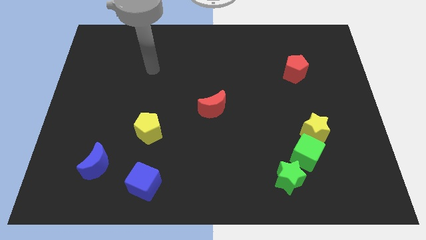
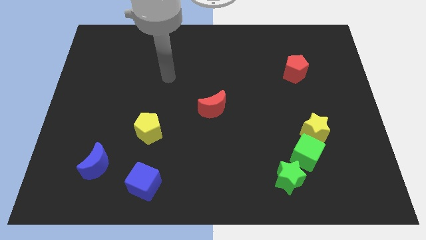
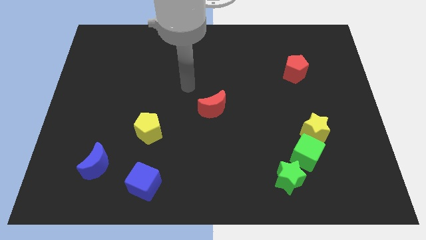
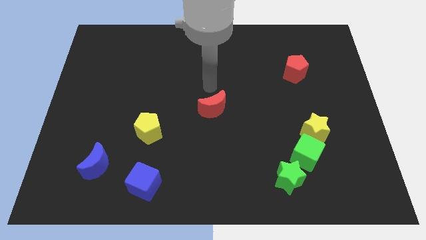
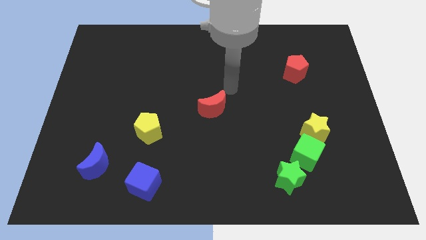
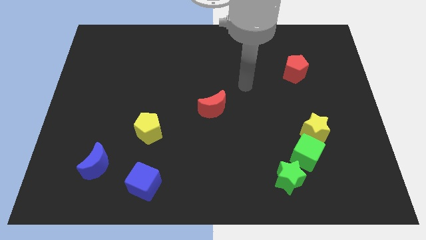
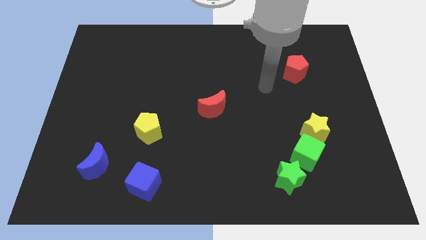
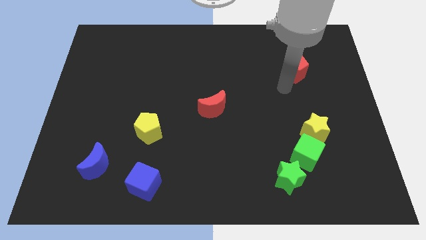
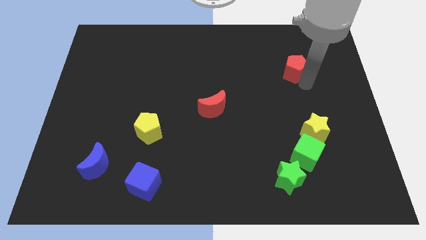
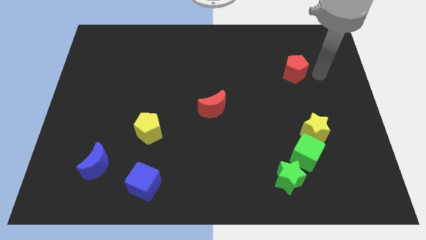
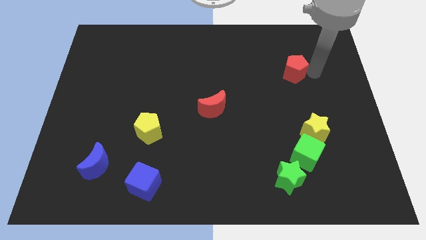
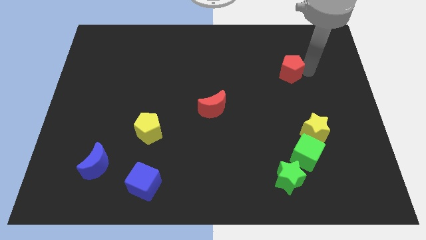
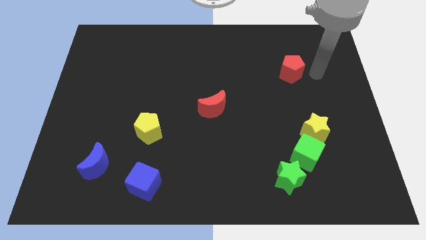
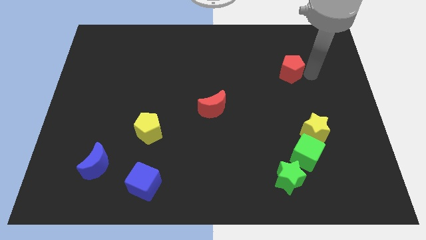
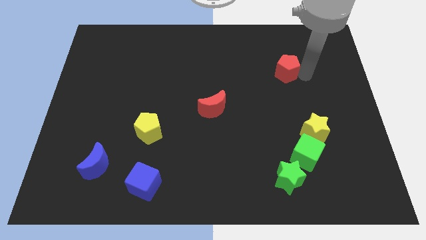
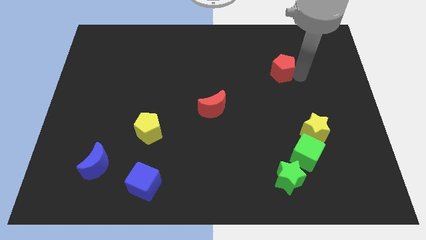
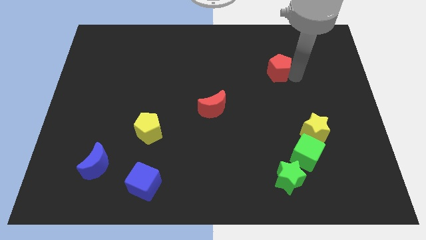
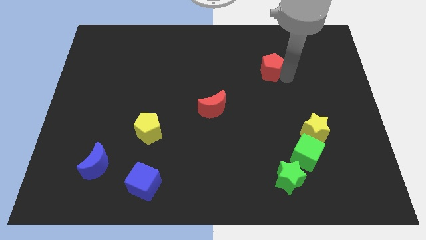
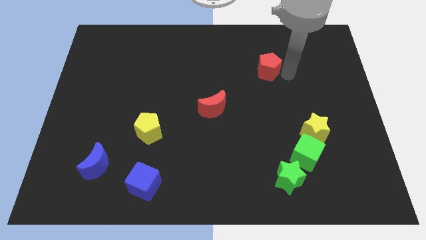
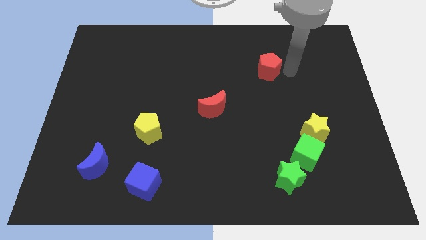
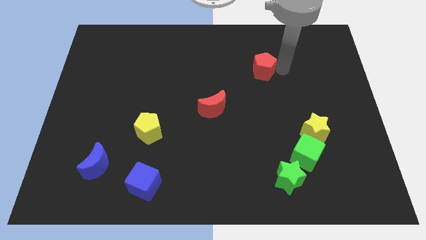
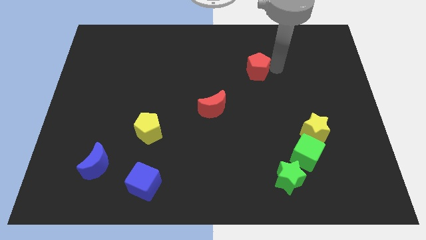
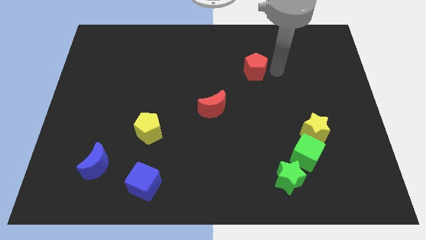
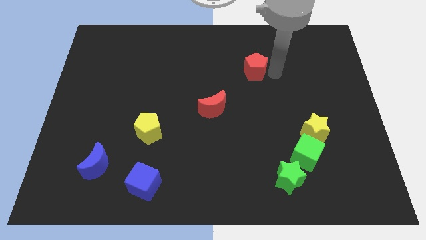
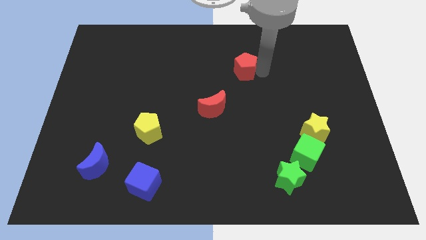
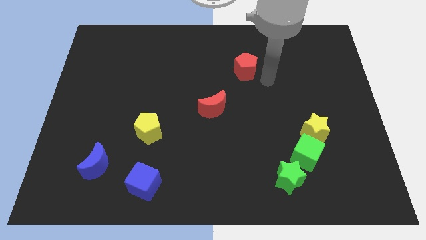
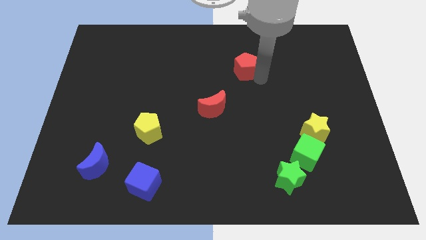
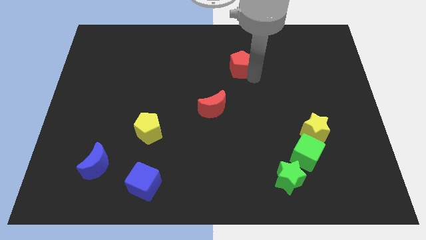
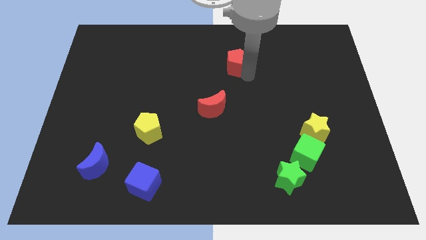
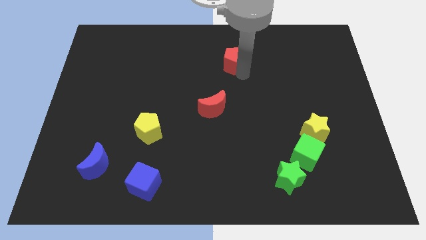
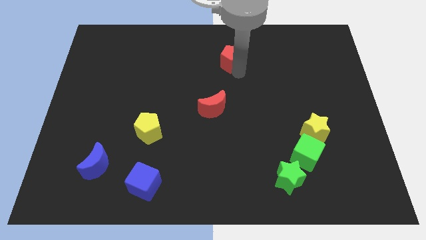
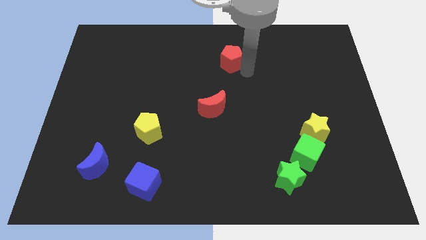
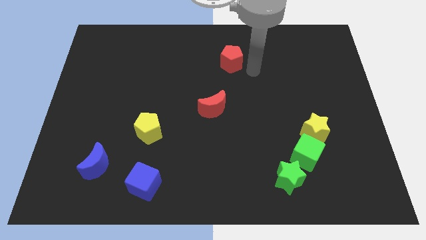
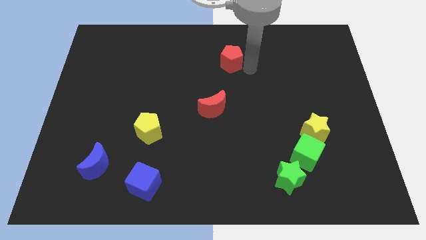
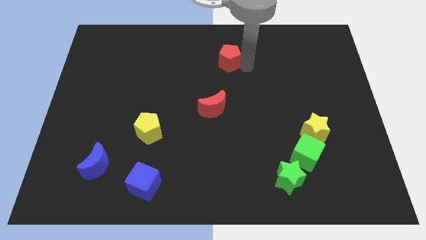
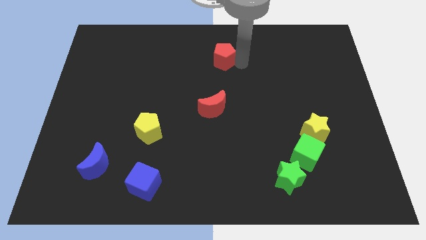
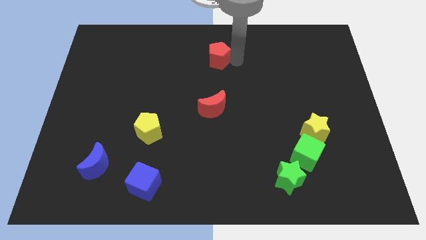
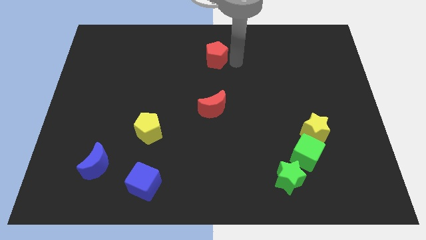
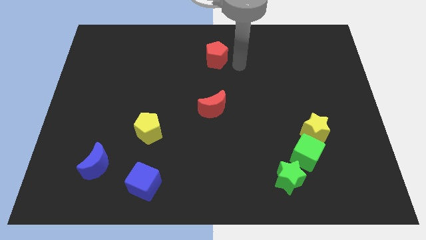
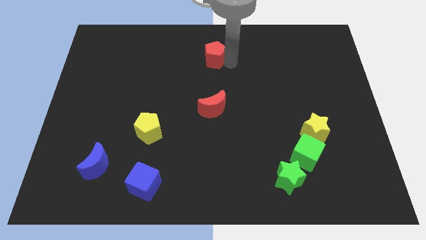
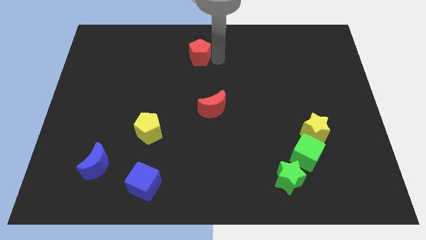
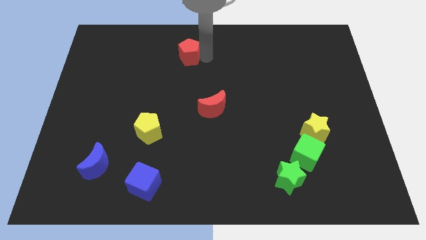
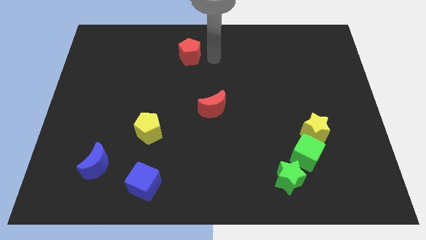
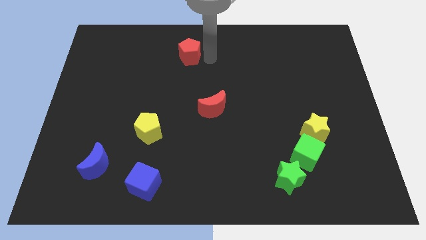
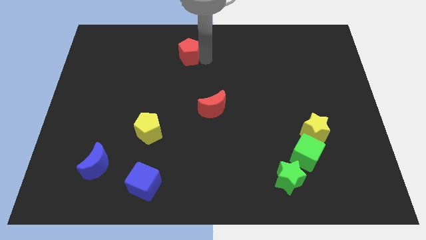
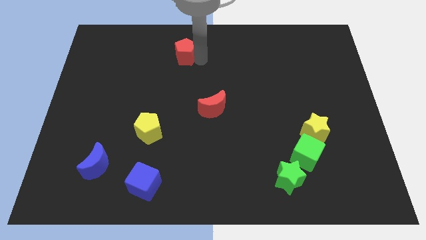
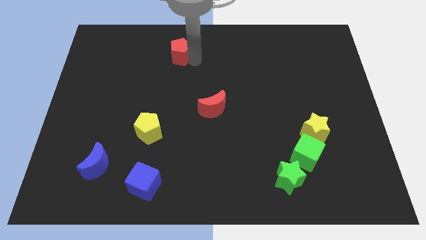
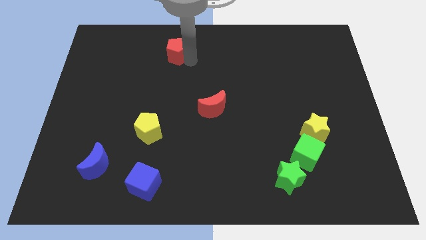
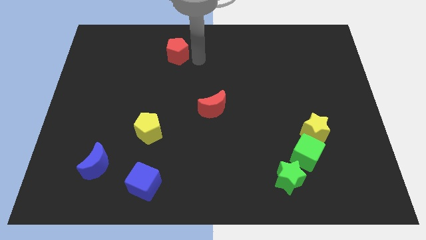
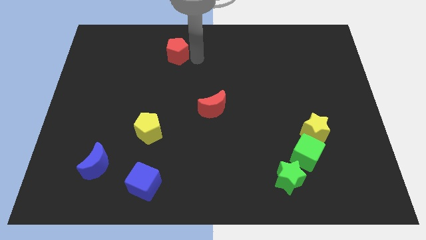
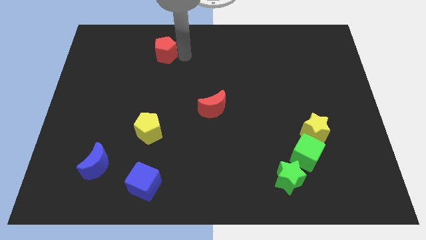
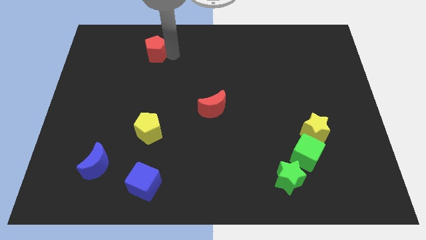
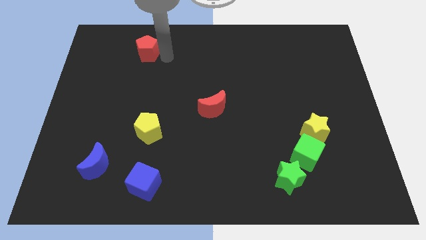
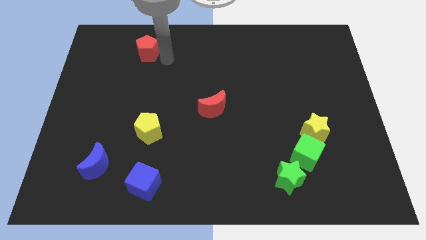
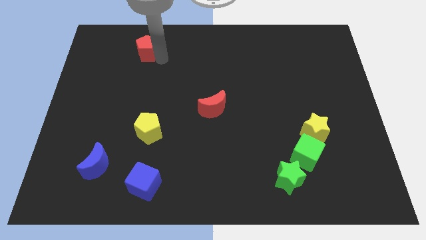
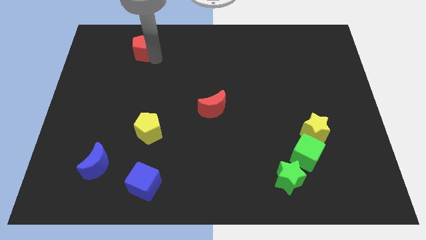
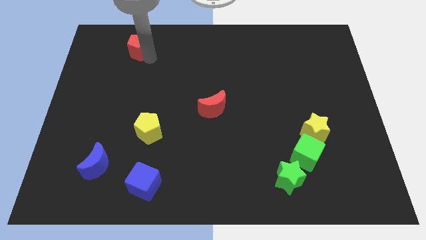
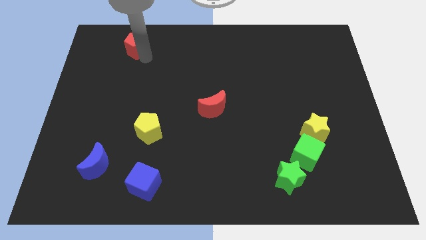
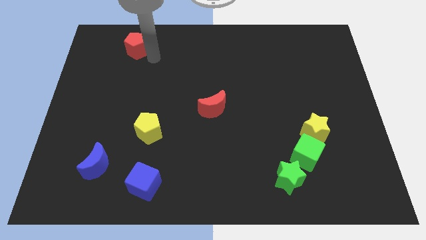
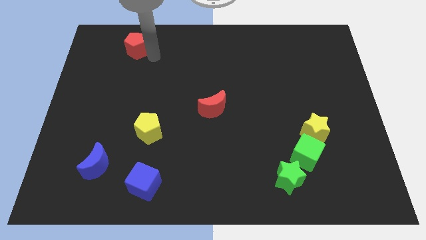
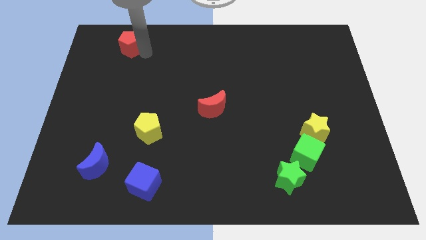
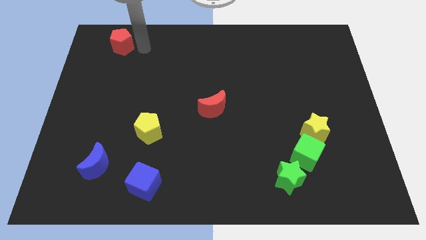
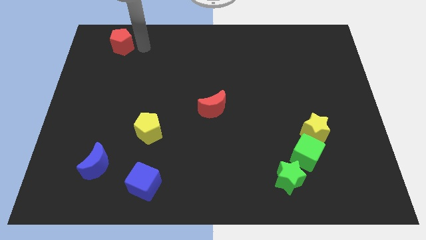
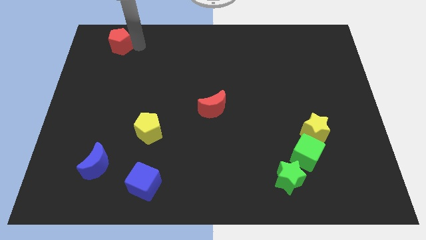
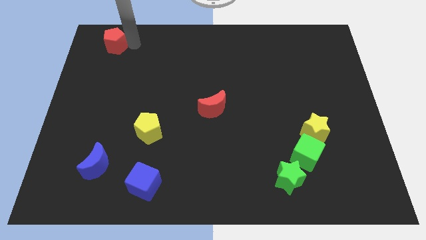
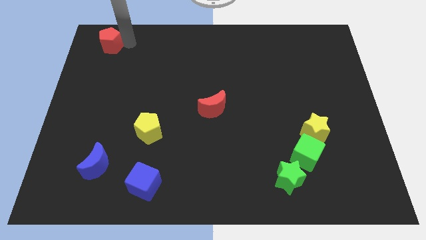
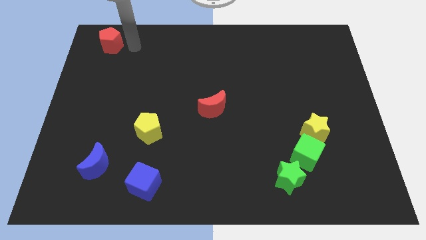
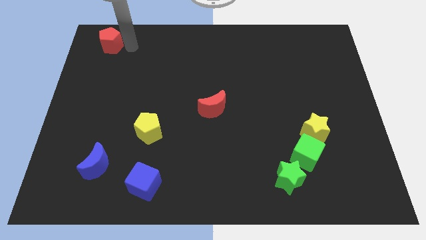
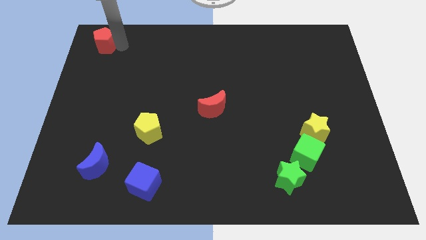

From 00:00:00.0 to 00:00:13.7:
move the red pentagon to the top left of the board
